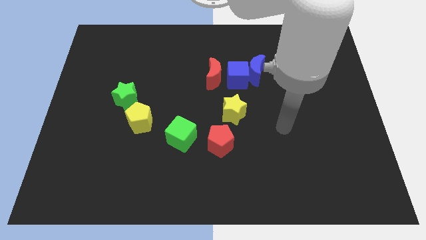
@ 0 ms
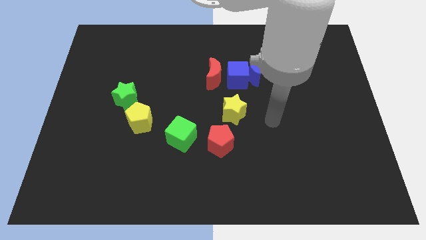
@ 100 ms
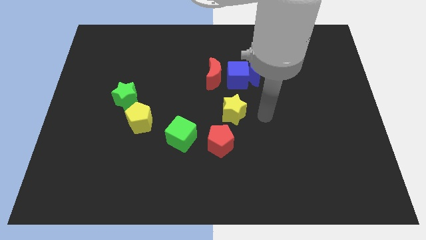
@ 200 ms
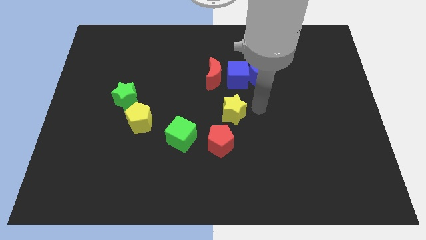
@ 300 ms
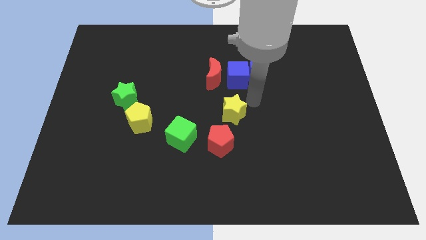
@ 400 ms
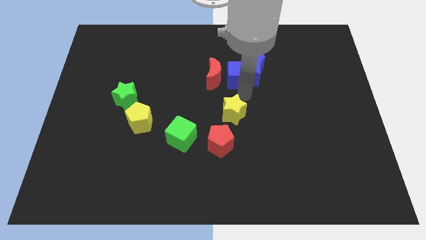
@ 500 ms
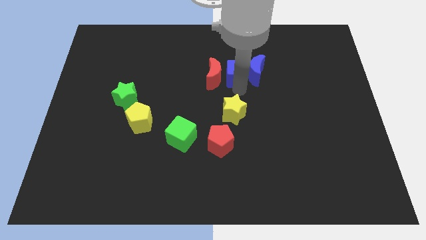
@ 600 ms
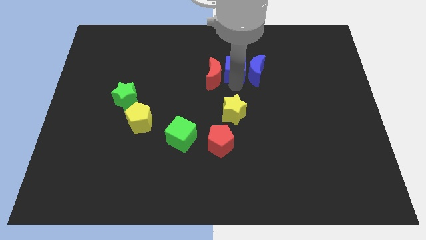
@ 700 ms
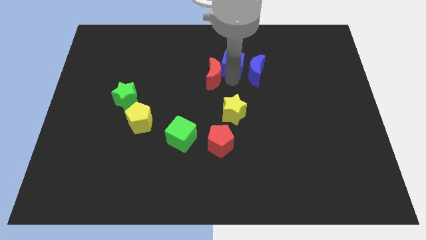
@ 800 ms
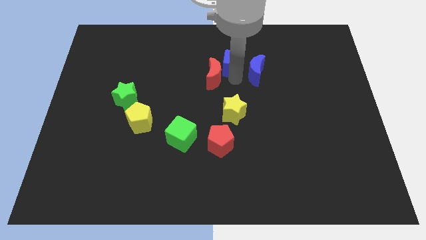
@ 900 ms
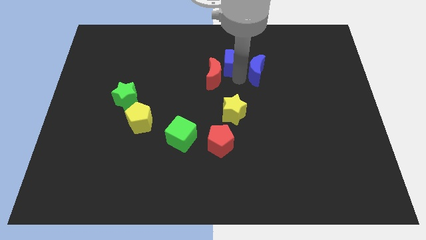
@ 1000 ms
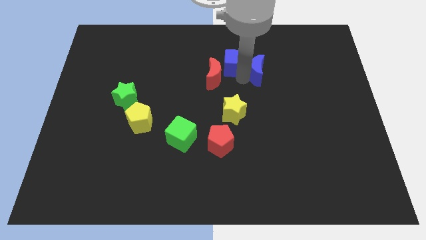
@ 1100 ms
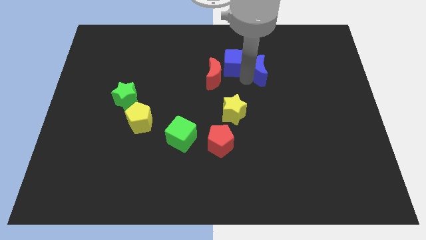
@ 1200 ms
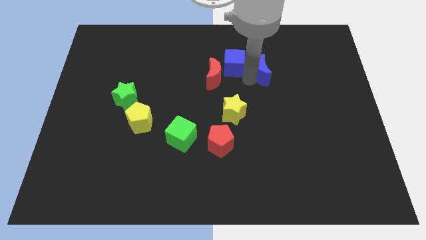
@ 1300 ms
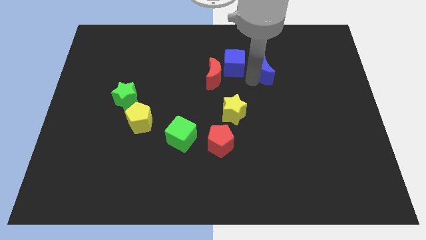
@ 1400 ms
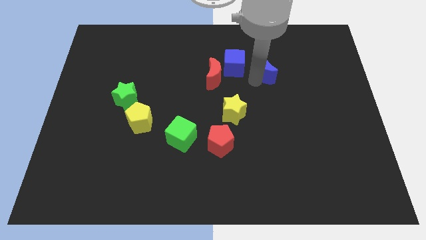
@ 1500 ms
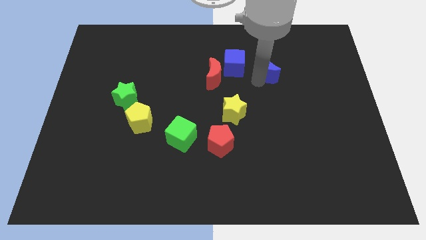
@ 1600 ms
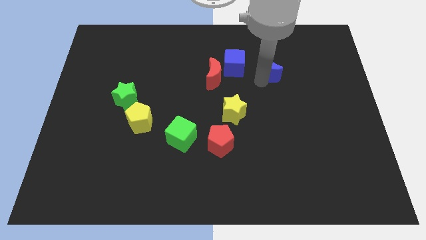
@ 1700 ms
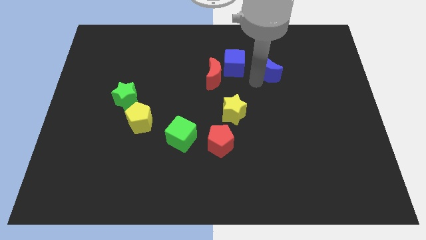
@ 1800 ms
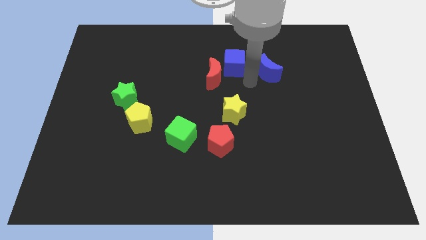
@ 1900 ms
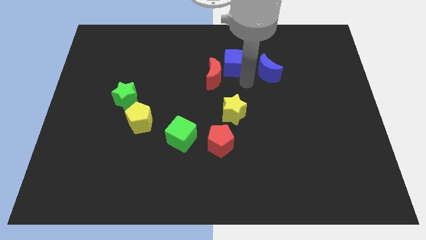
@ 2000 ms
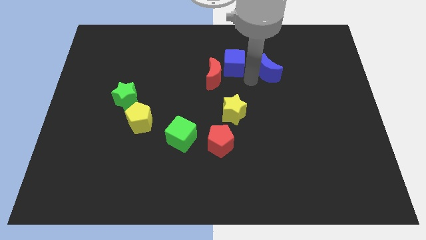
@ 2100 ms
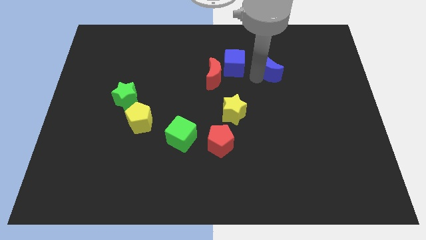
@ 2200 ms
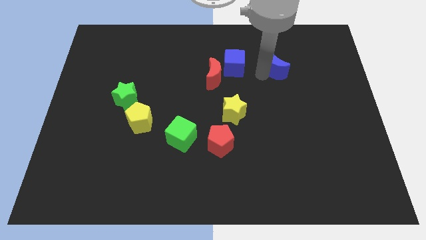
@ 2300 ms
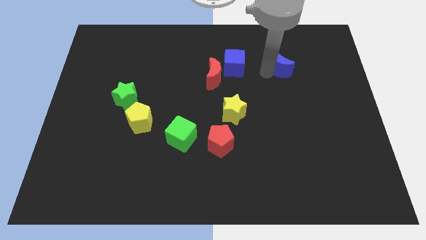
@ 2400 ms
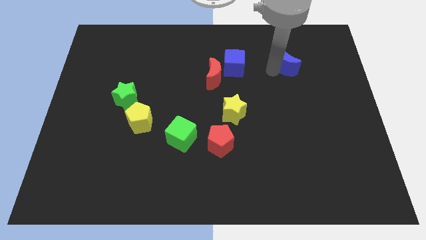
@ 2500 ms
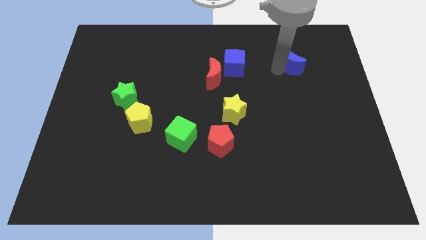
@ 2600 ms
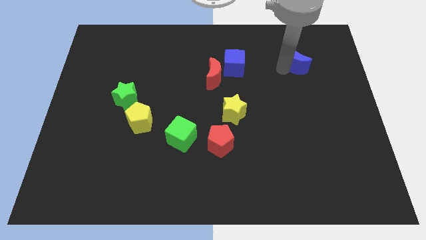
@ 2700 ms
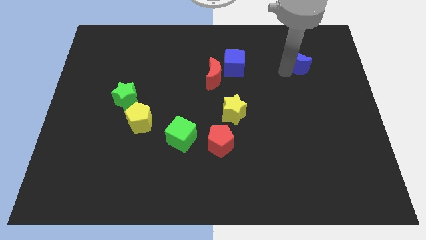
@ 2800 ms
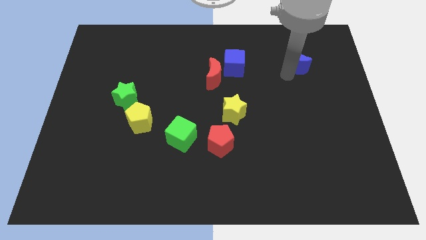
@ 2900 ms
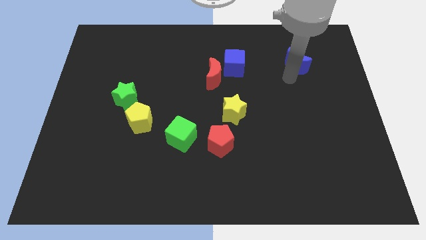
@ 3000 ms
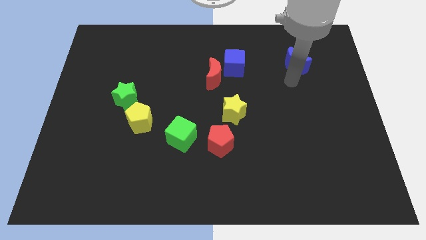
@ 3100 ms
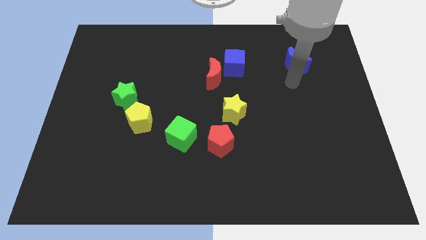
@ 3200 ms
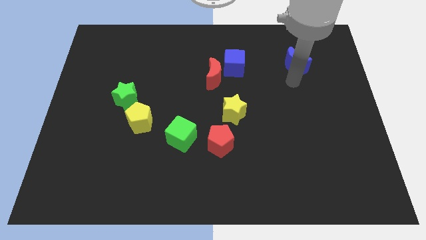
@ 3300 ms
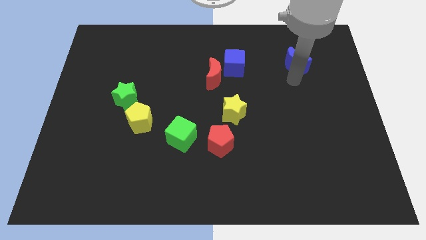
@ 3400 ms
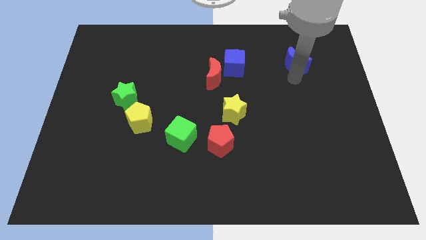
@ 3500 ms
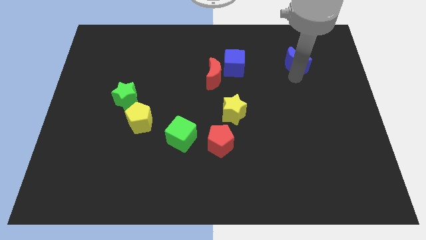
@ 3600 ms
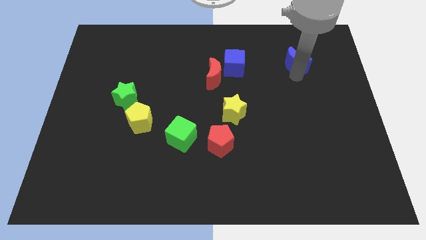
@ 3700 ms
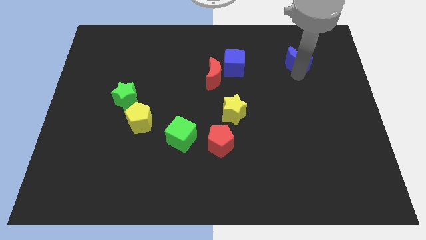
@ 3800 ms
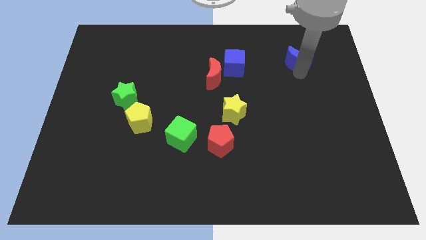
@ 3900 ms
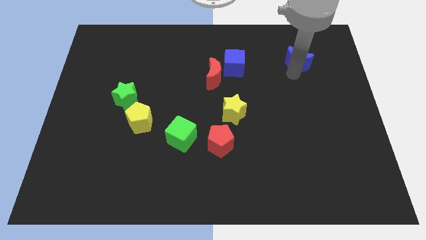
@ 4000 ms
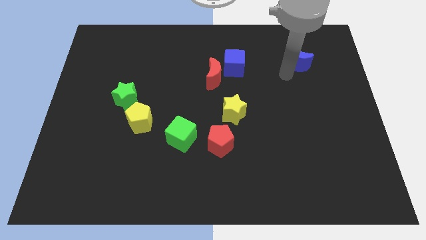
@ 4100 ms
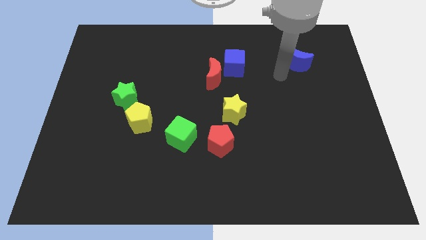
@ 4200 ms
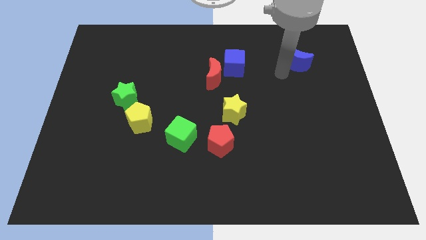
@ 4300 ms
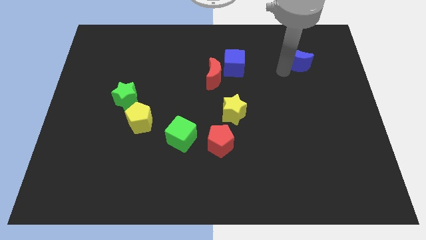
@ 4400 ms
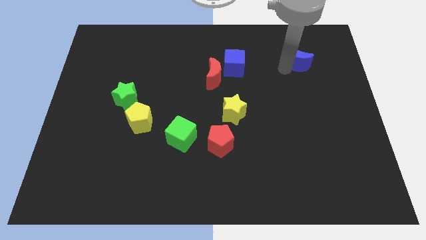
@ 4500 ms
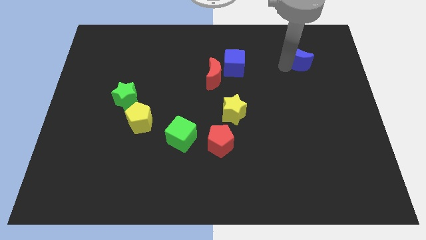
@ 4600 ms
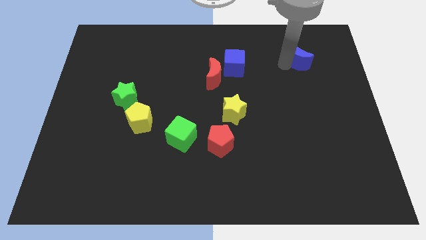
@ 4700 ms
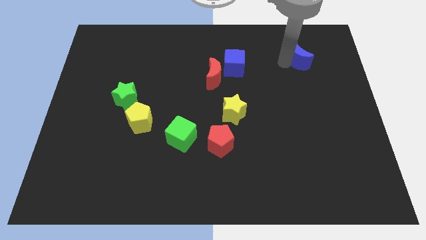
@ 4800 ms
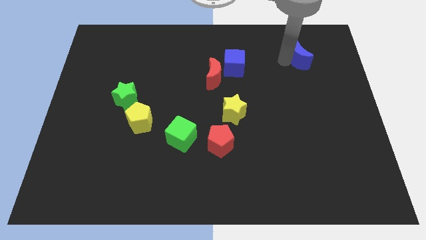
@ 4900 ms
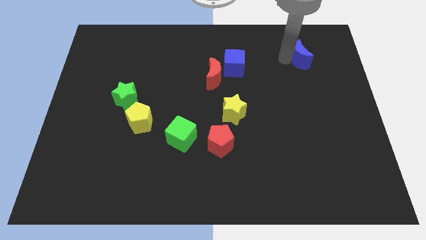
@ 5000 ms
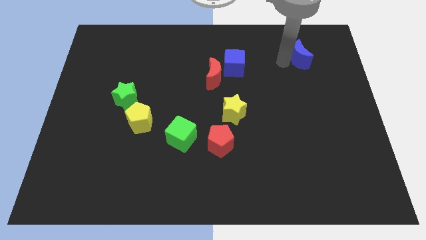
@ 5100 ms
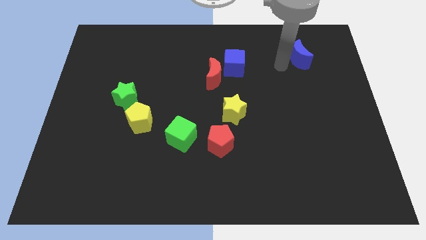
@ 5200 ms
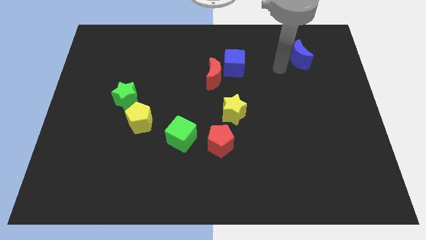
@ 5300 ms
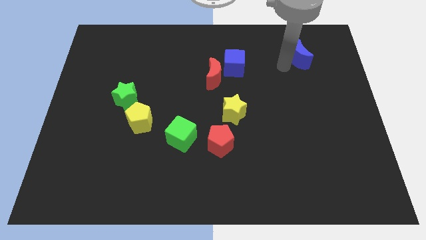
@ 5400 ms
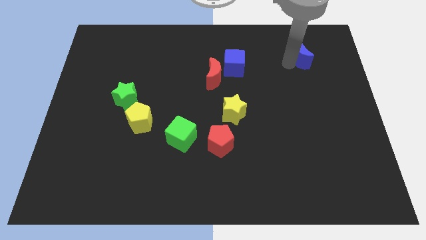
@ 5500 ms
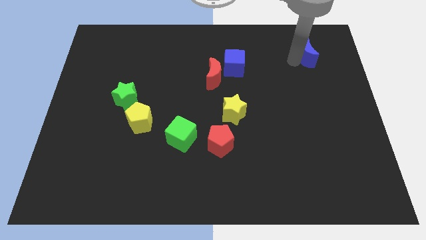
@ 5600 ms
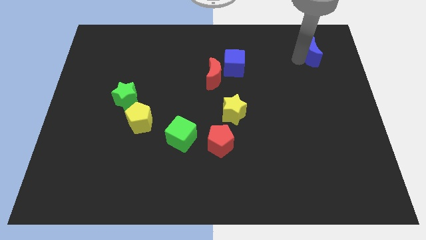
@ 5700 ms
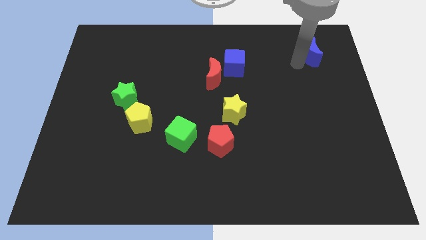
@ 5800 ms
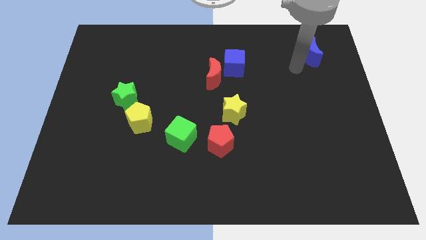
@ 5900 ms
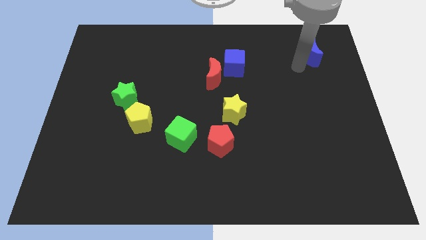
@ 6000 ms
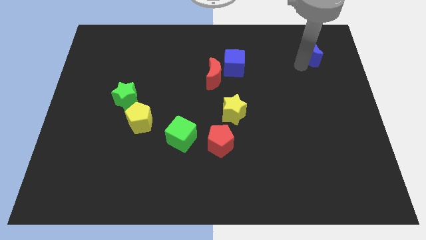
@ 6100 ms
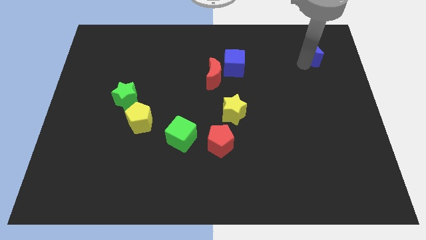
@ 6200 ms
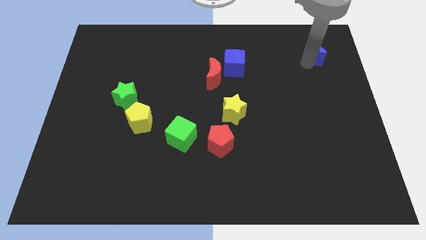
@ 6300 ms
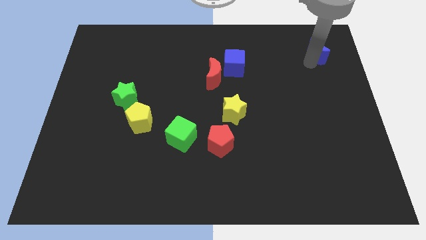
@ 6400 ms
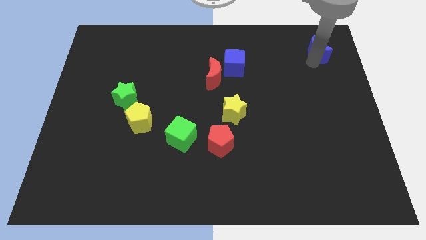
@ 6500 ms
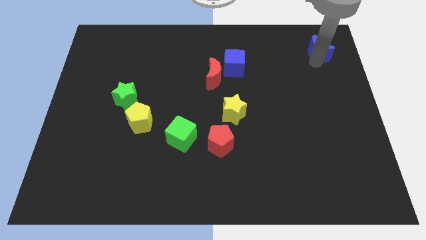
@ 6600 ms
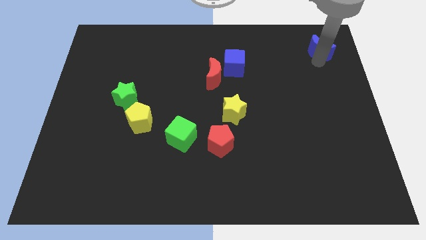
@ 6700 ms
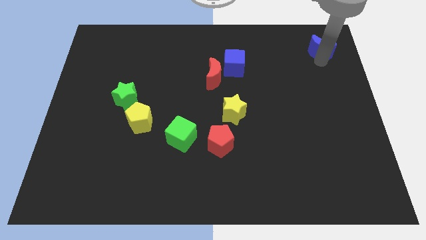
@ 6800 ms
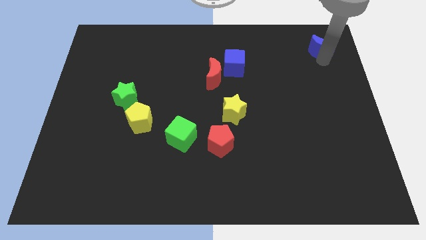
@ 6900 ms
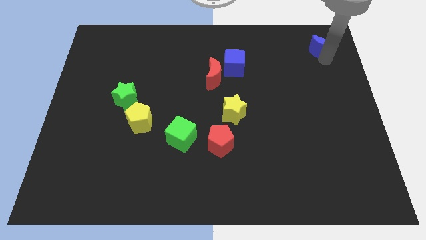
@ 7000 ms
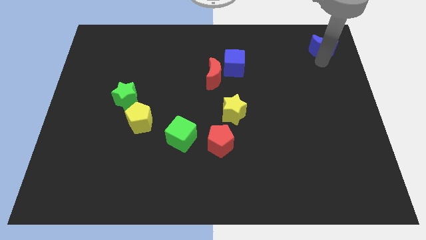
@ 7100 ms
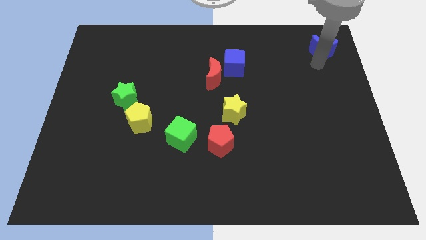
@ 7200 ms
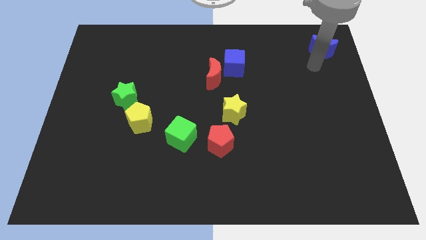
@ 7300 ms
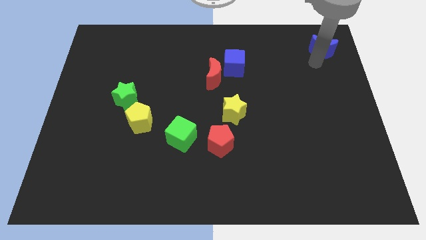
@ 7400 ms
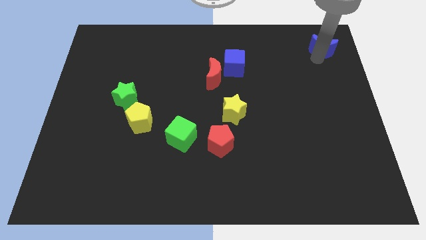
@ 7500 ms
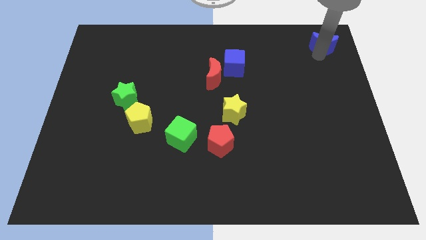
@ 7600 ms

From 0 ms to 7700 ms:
push the blue moon to the top right
